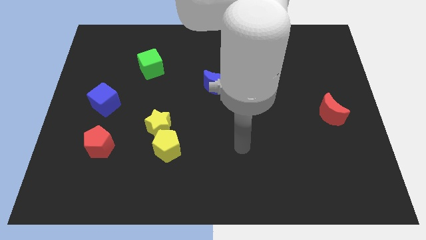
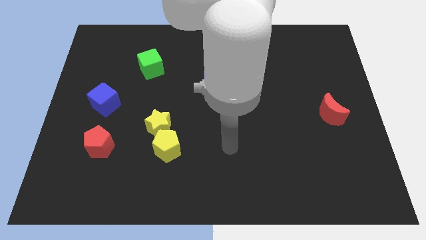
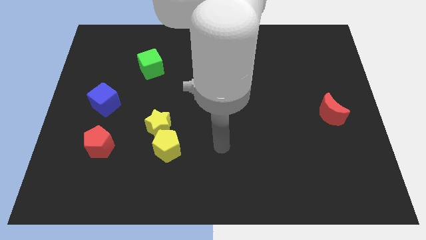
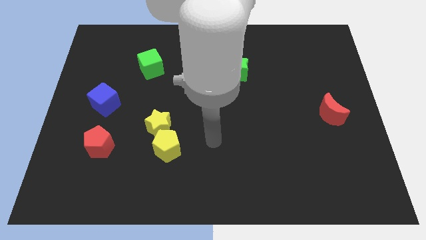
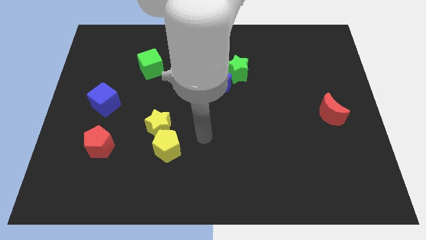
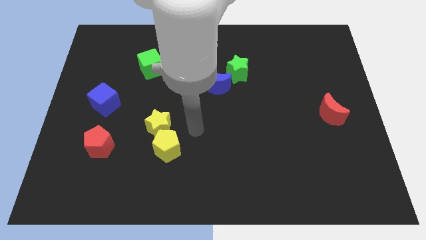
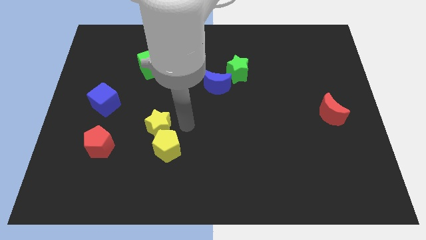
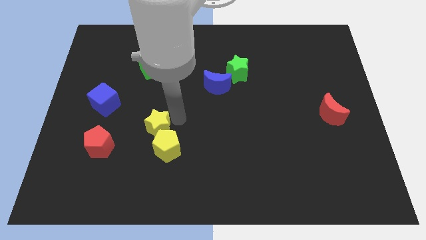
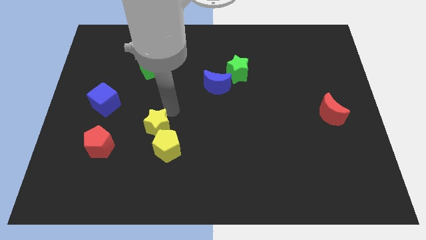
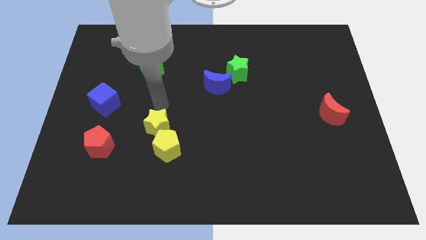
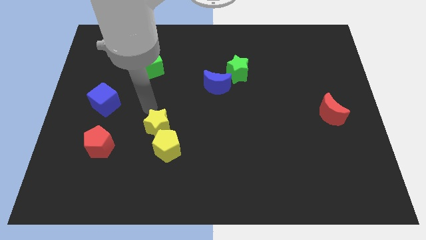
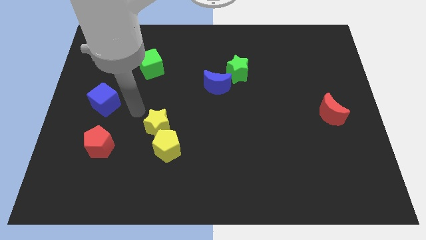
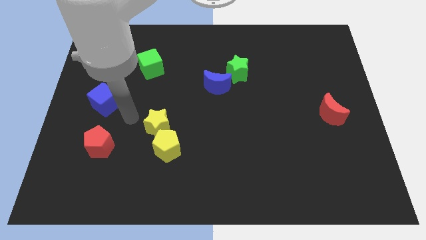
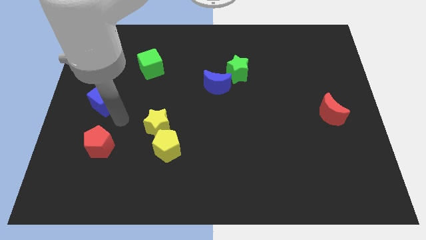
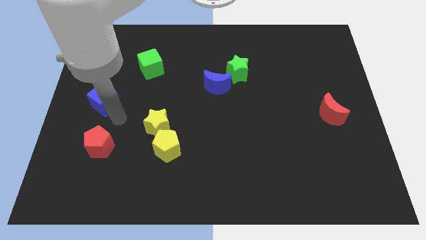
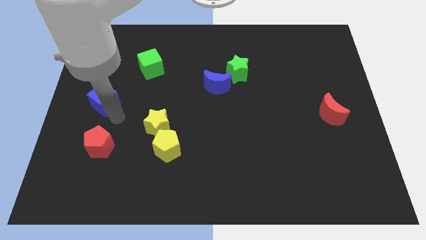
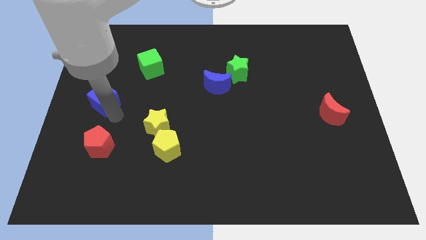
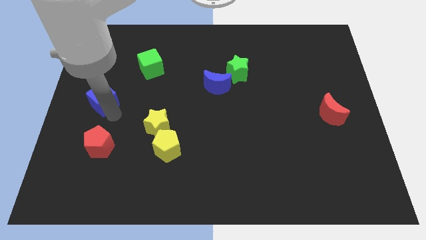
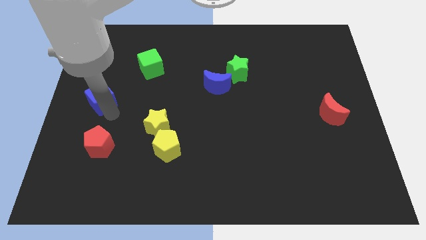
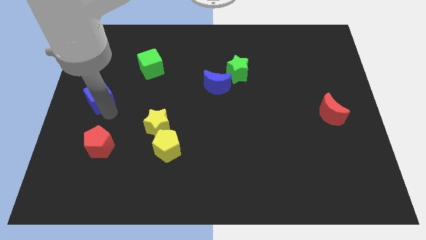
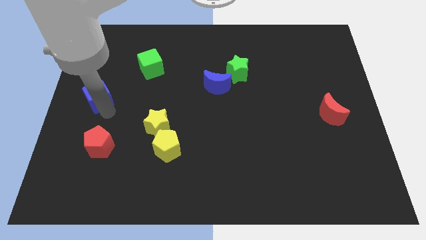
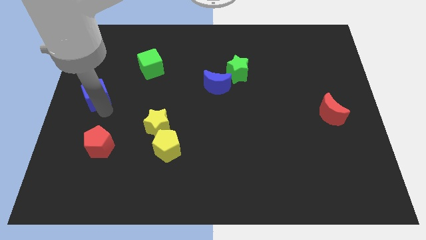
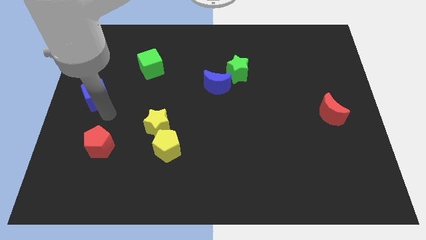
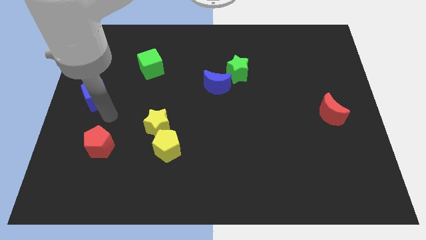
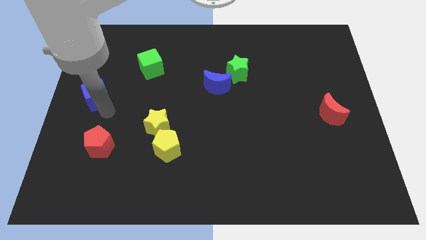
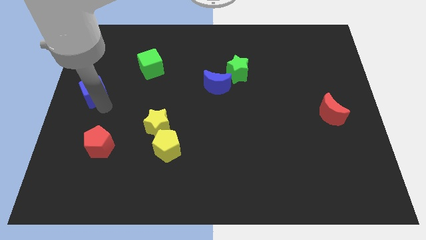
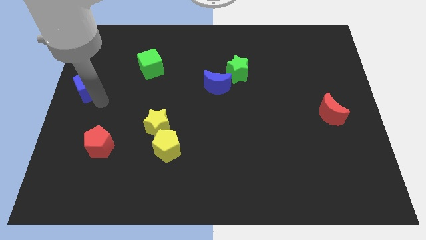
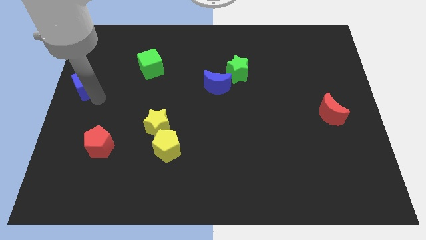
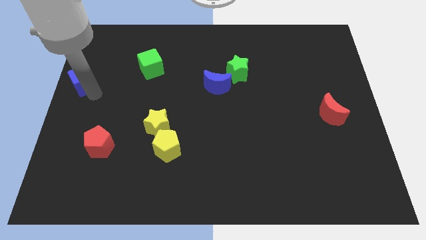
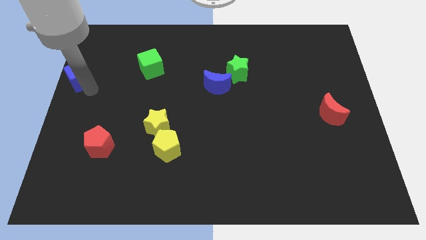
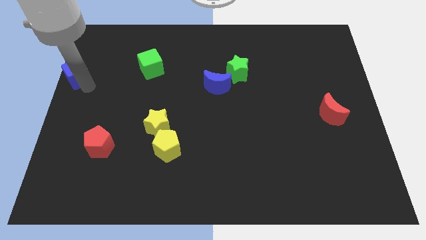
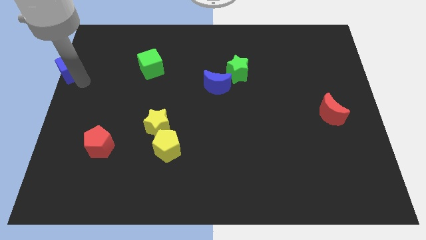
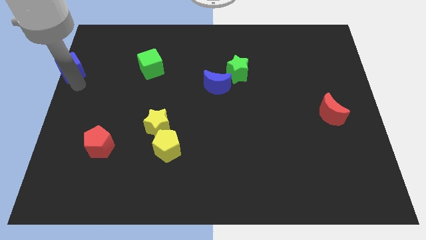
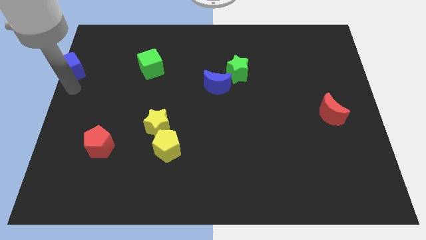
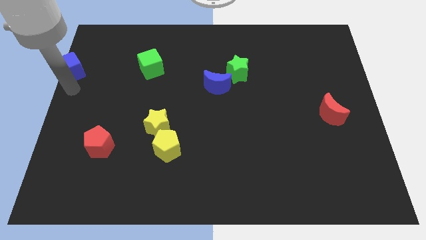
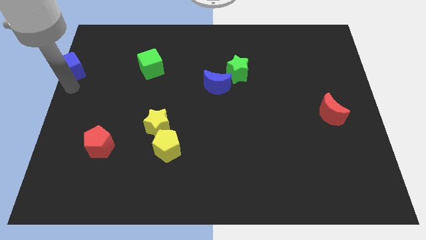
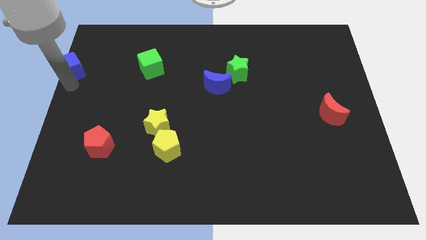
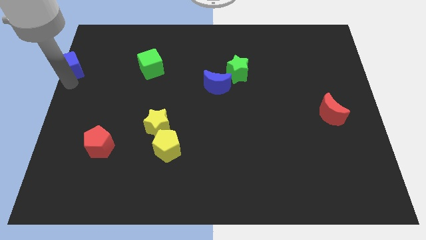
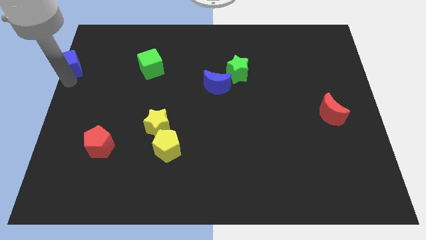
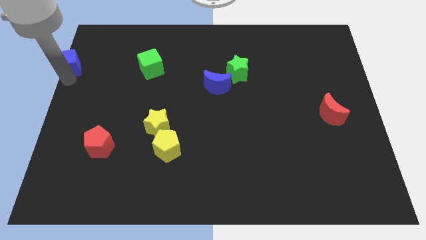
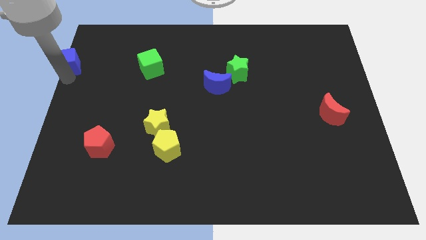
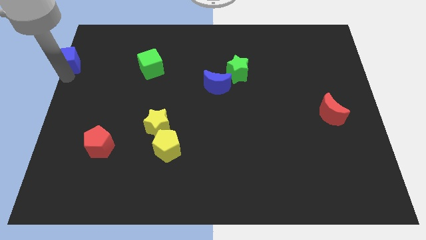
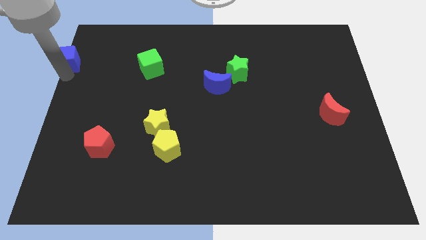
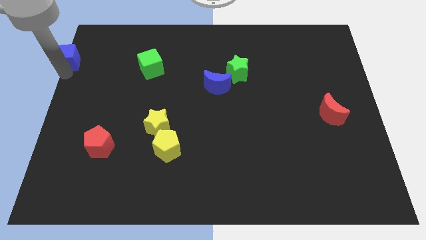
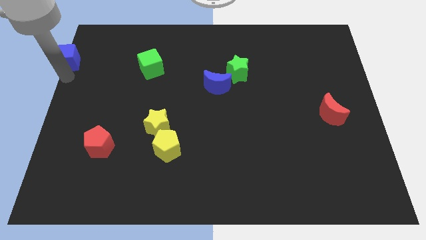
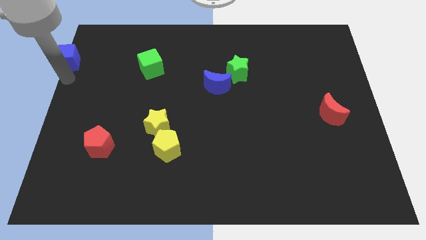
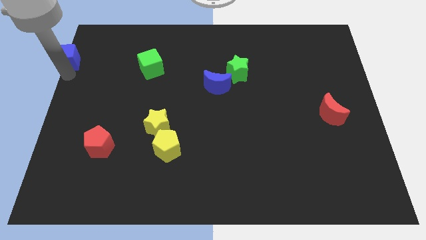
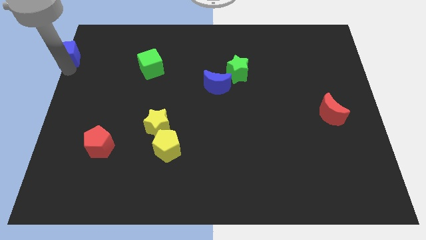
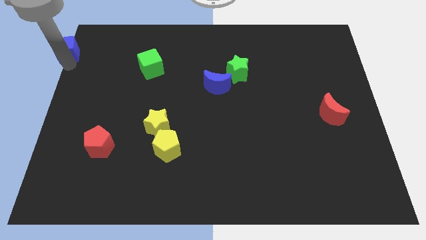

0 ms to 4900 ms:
move the blue cube to the upper left corner

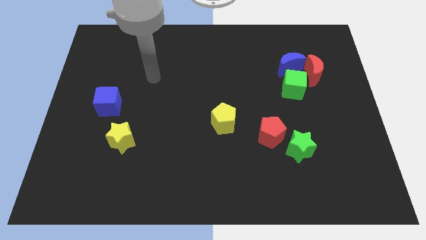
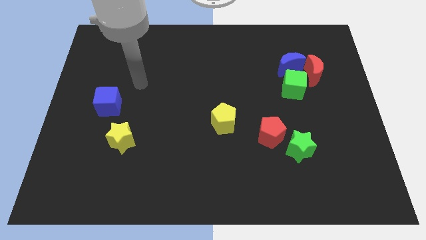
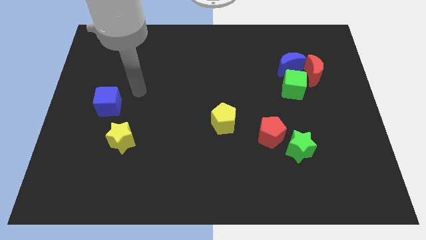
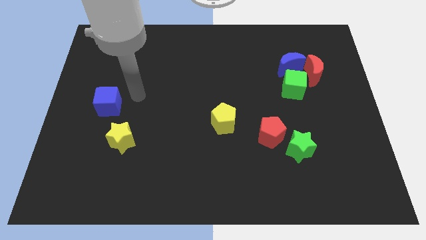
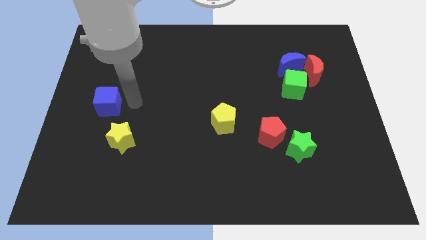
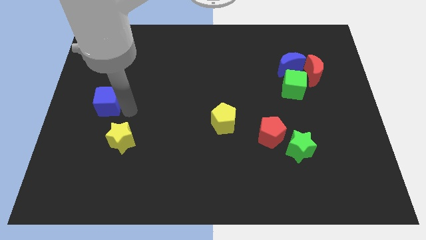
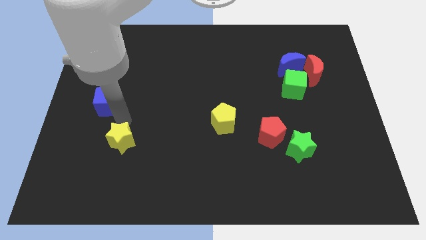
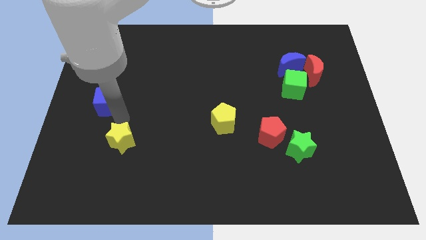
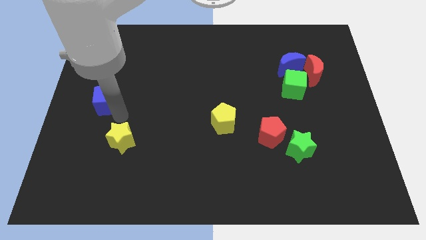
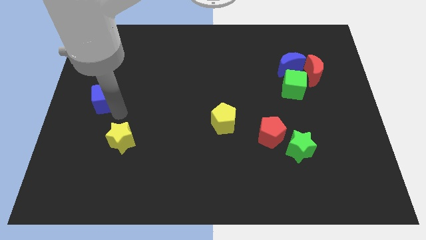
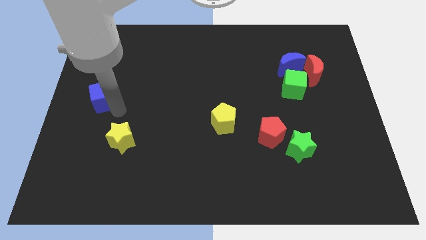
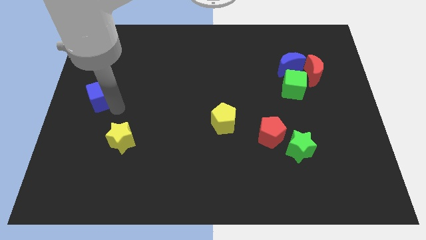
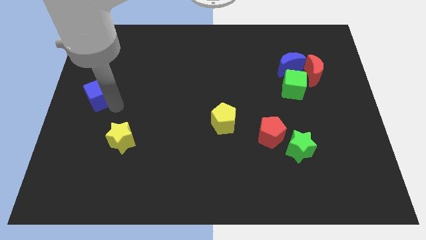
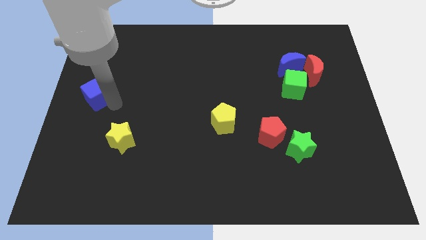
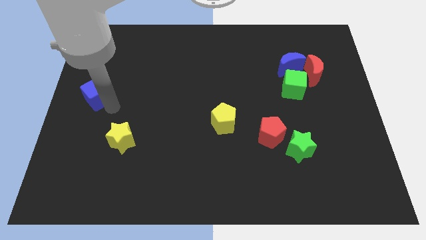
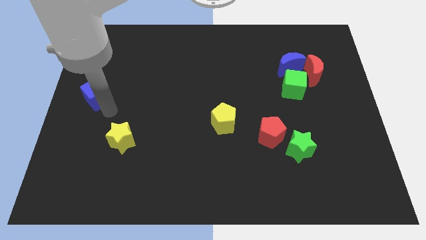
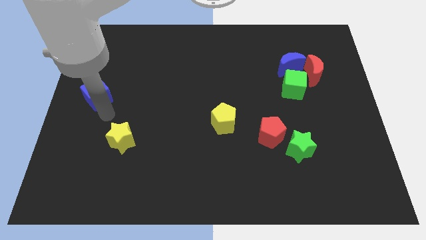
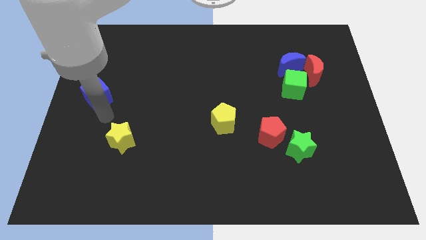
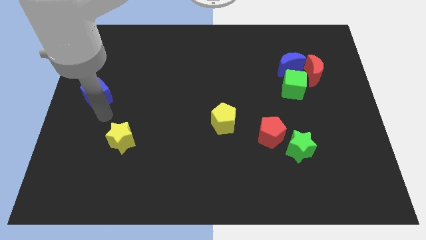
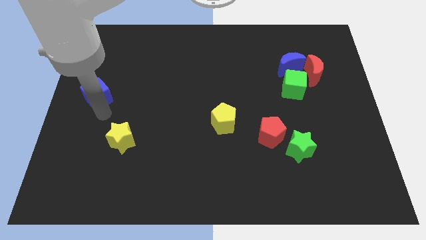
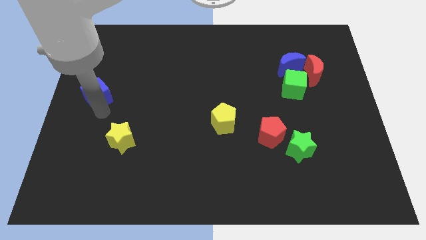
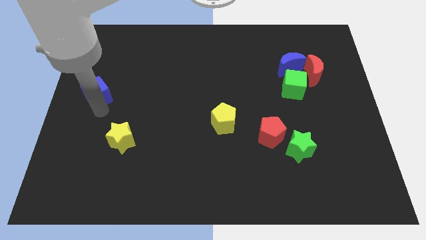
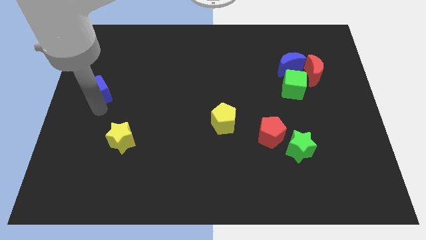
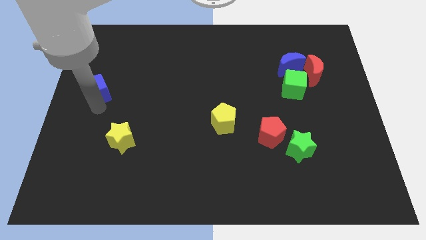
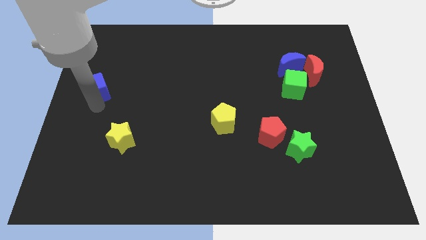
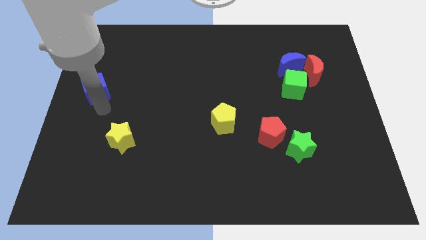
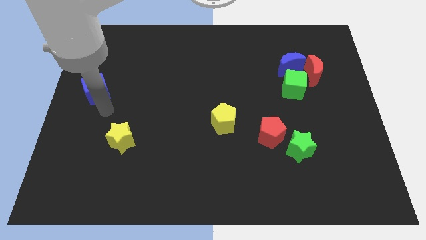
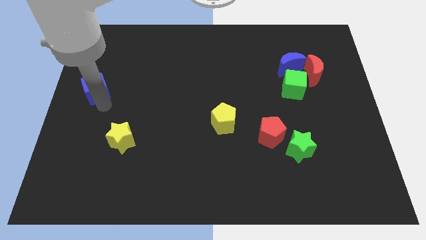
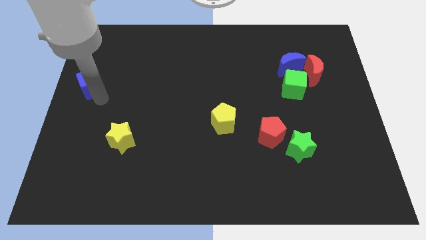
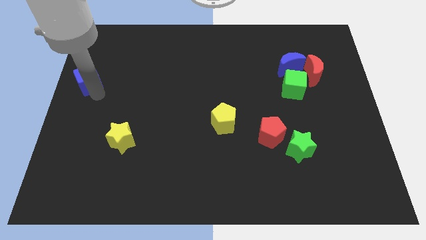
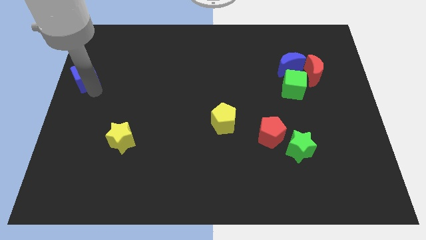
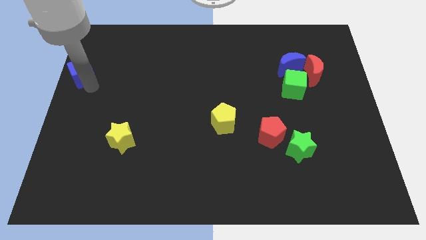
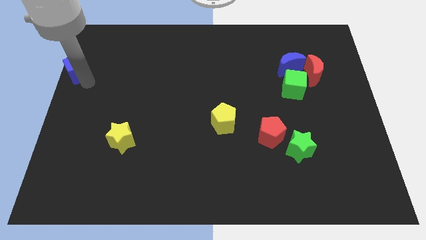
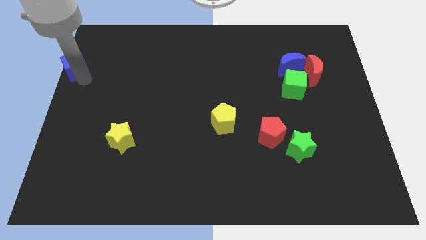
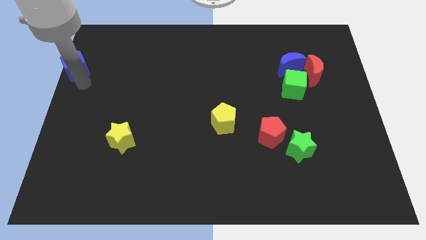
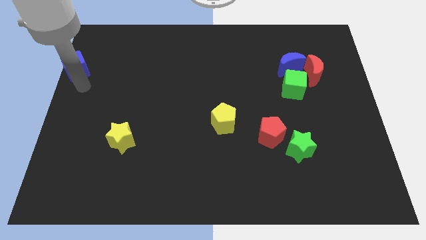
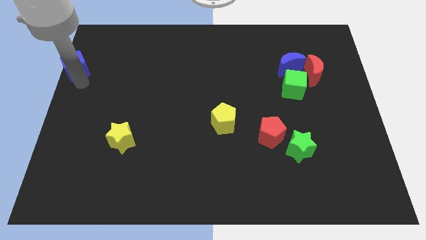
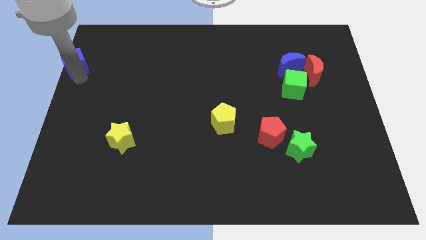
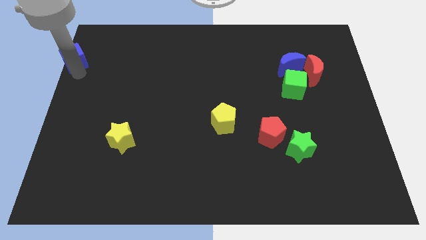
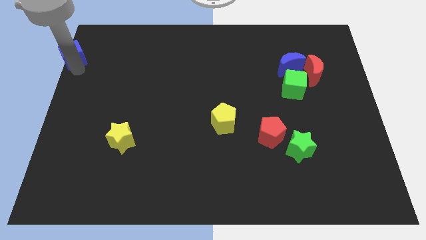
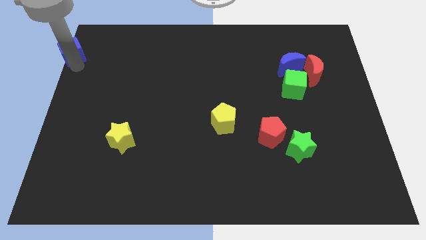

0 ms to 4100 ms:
push the blue cube to the top left corner
